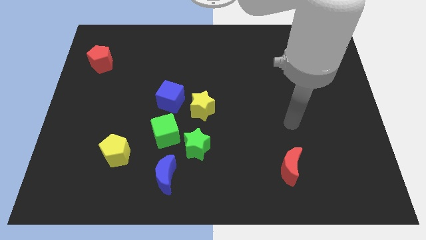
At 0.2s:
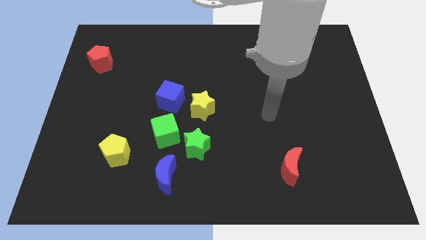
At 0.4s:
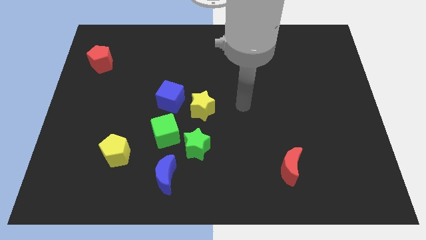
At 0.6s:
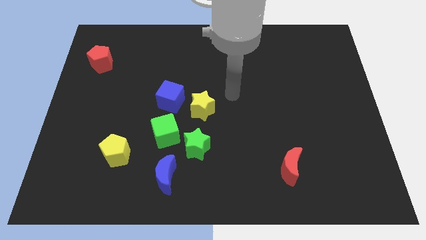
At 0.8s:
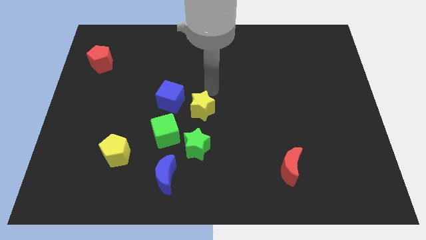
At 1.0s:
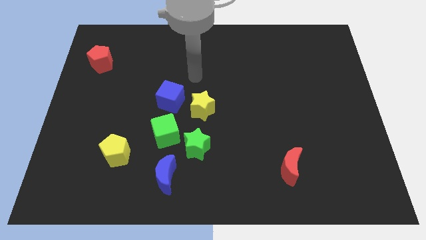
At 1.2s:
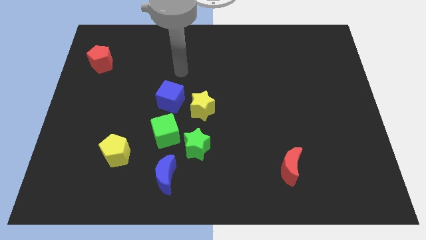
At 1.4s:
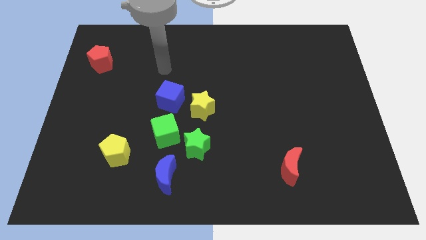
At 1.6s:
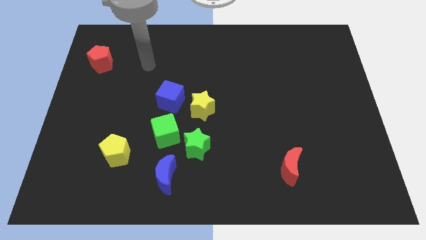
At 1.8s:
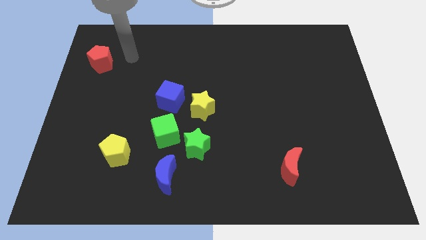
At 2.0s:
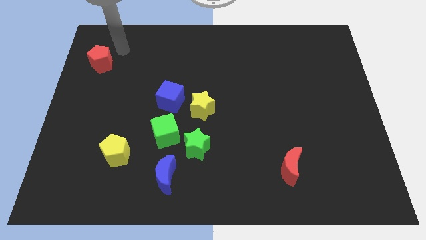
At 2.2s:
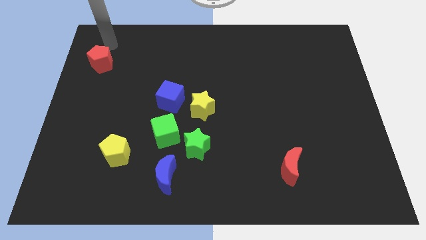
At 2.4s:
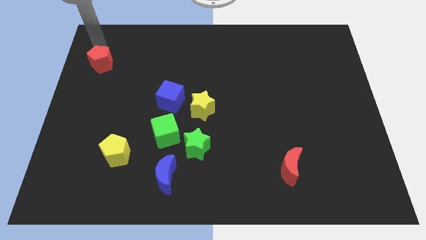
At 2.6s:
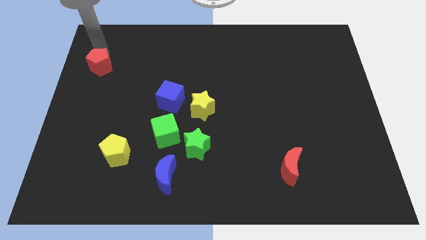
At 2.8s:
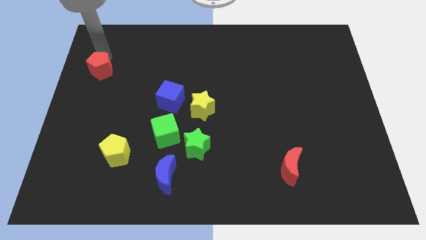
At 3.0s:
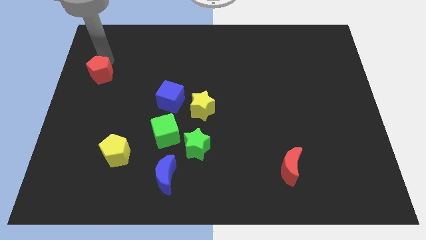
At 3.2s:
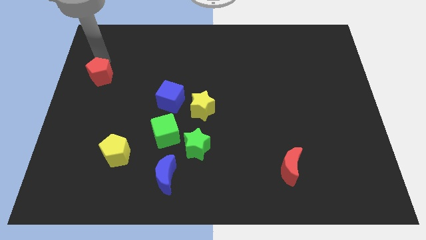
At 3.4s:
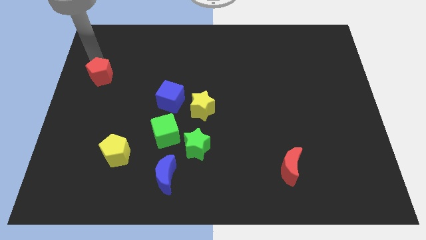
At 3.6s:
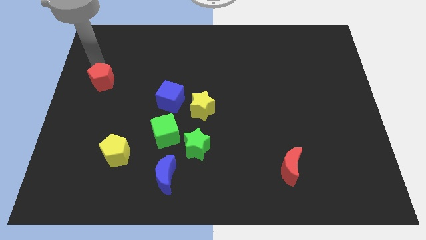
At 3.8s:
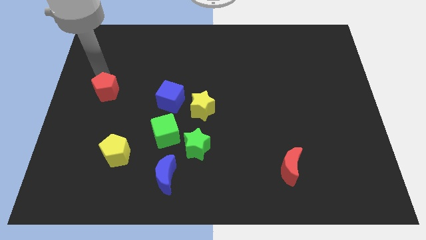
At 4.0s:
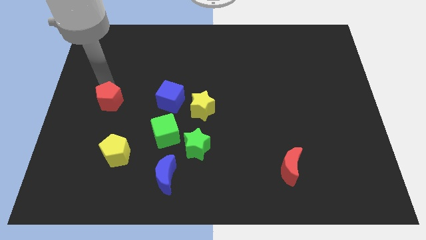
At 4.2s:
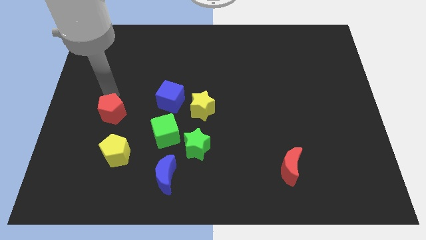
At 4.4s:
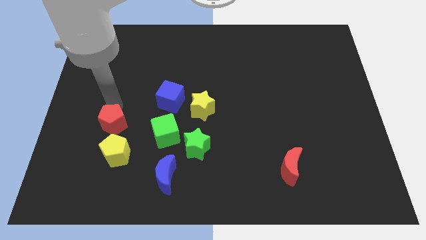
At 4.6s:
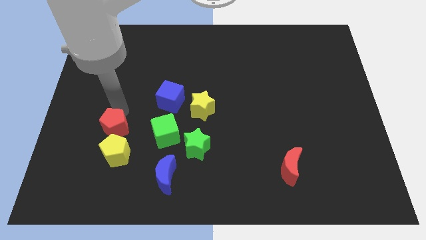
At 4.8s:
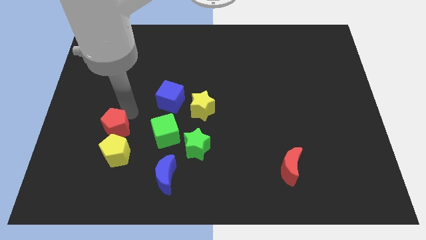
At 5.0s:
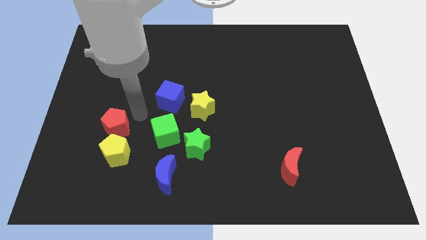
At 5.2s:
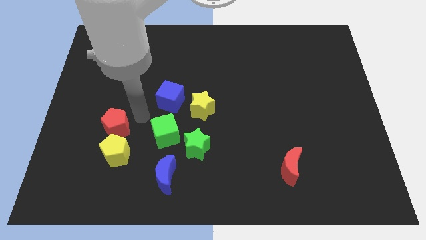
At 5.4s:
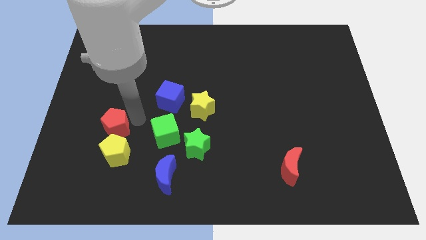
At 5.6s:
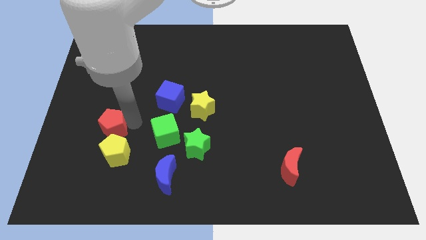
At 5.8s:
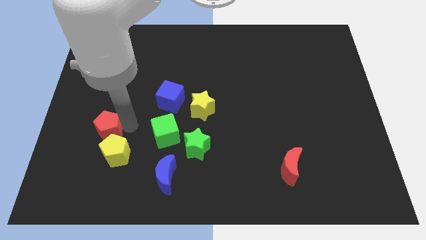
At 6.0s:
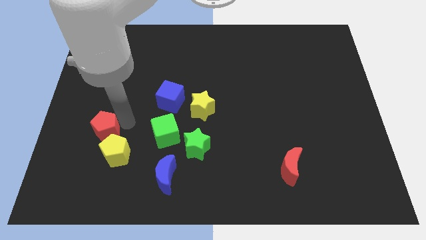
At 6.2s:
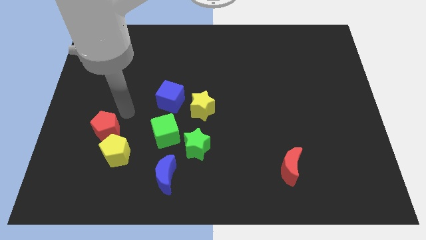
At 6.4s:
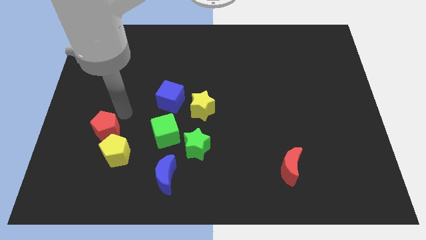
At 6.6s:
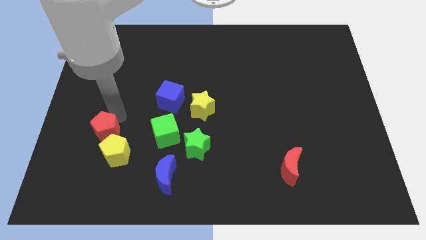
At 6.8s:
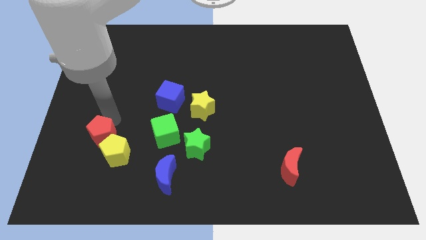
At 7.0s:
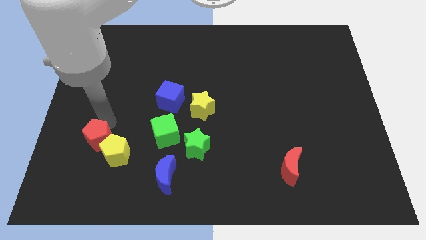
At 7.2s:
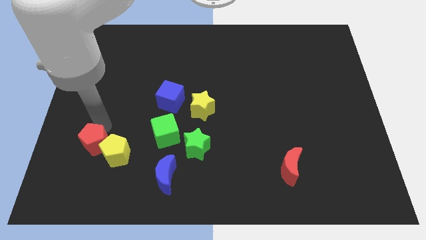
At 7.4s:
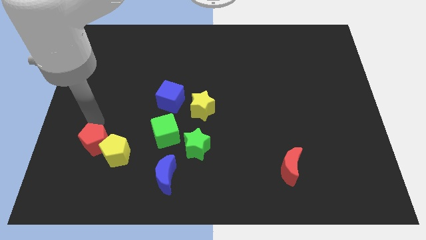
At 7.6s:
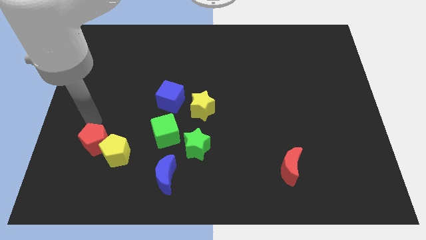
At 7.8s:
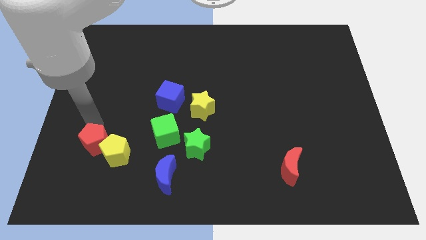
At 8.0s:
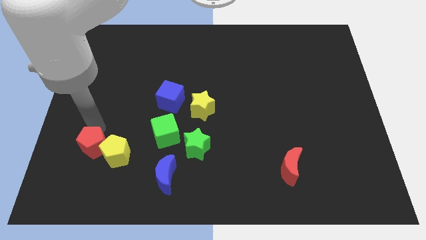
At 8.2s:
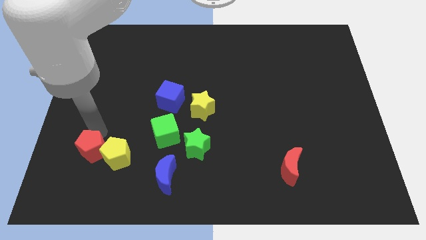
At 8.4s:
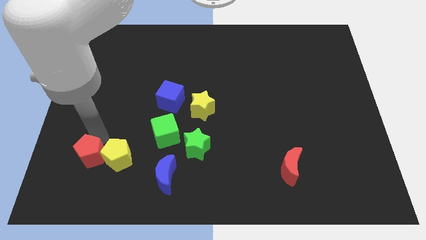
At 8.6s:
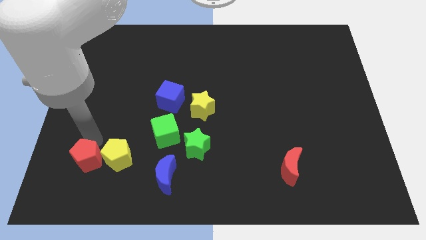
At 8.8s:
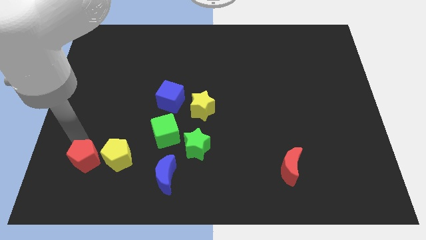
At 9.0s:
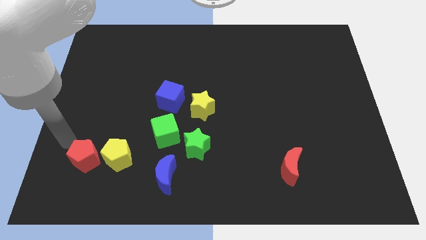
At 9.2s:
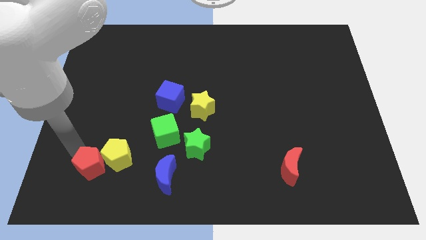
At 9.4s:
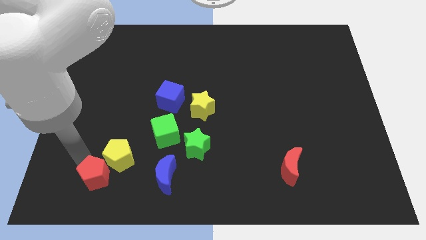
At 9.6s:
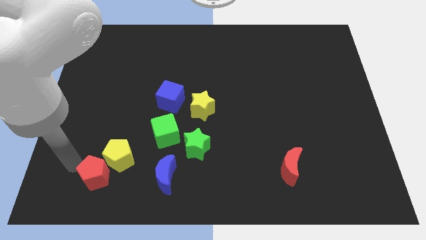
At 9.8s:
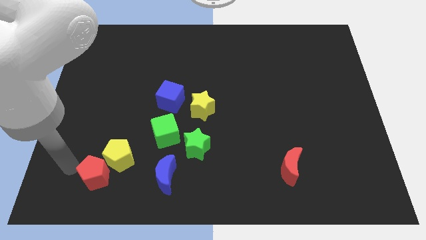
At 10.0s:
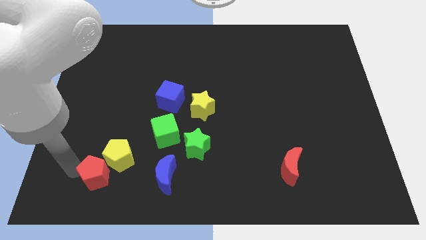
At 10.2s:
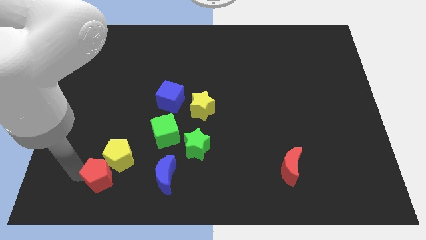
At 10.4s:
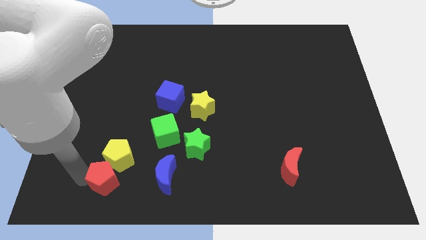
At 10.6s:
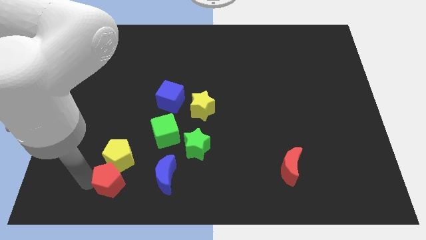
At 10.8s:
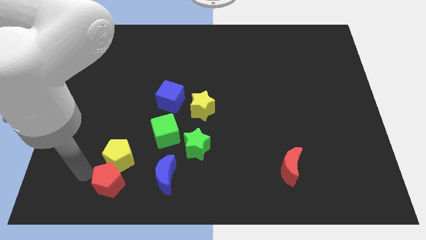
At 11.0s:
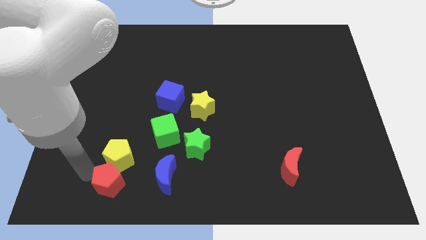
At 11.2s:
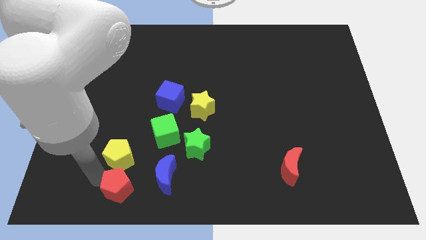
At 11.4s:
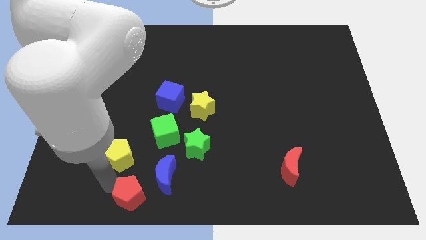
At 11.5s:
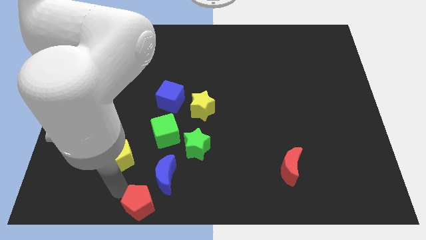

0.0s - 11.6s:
push the red pentagon to the bottom side

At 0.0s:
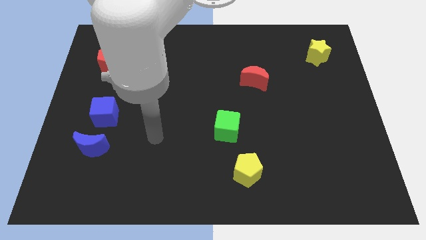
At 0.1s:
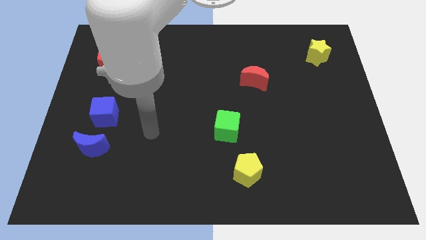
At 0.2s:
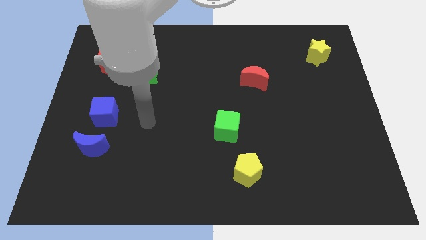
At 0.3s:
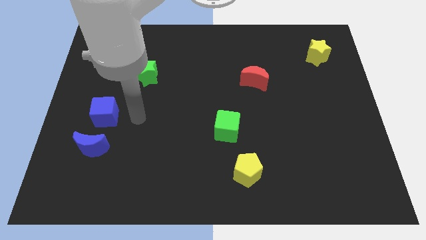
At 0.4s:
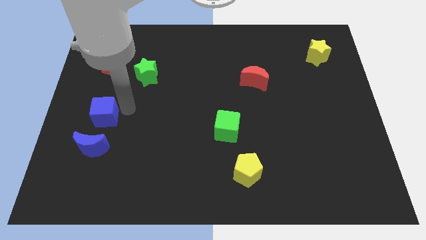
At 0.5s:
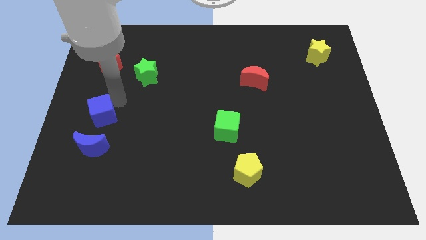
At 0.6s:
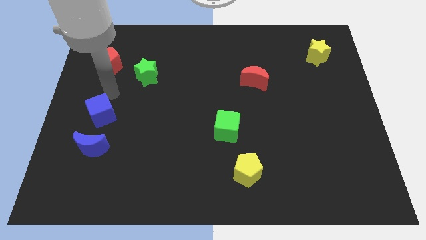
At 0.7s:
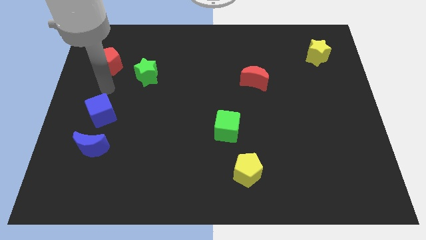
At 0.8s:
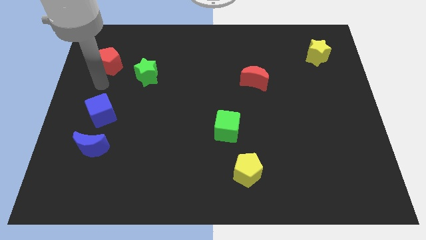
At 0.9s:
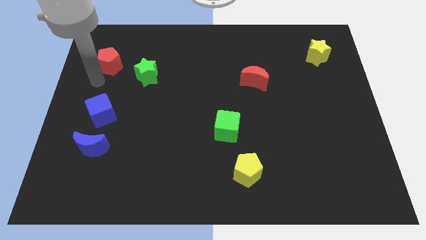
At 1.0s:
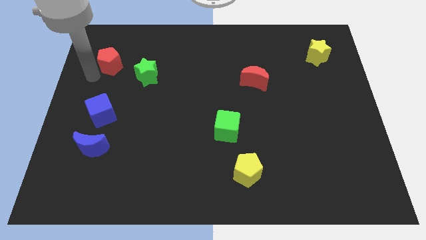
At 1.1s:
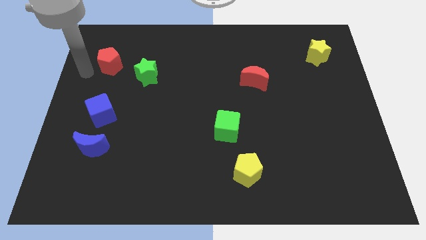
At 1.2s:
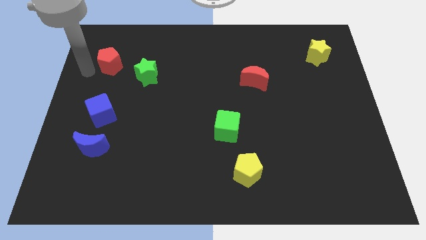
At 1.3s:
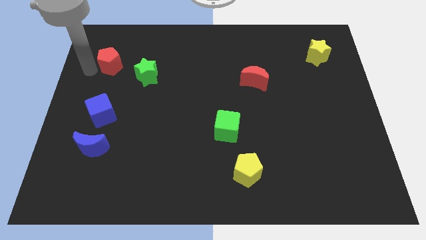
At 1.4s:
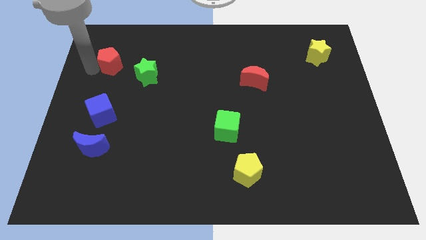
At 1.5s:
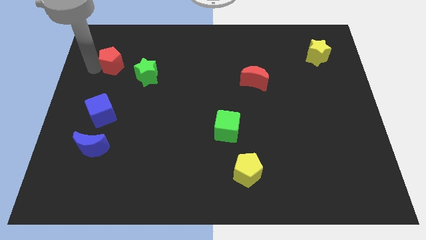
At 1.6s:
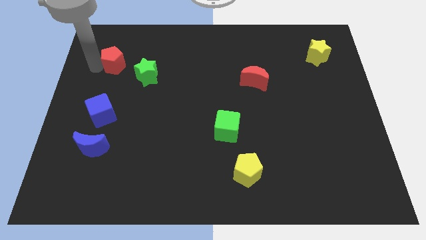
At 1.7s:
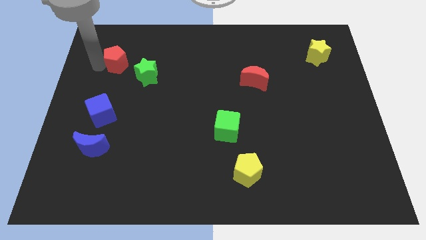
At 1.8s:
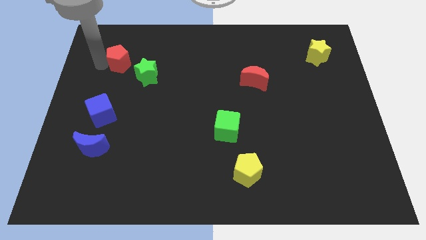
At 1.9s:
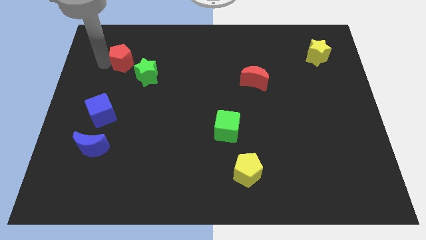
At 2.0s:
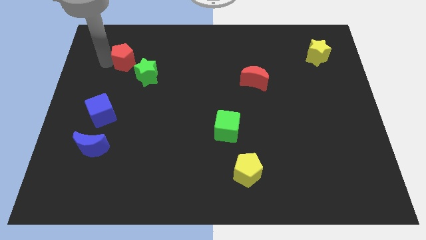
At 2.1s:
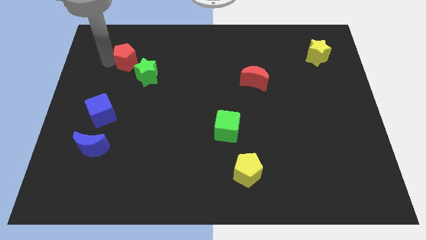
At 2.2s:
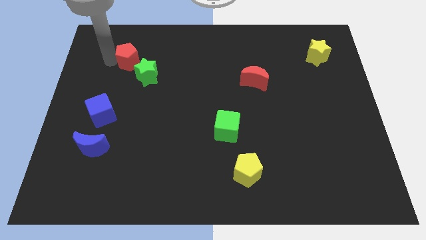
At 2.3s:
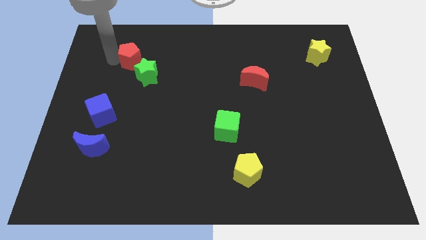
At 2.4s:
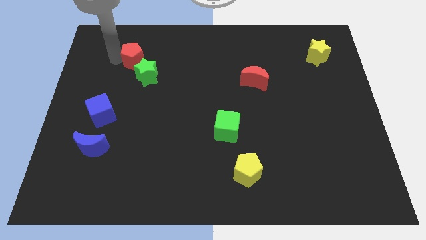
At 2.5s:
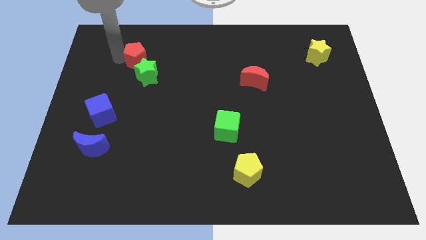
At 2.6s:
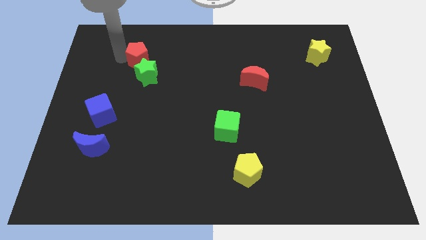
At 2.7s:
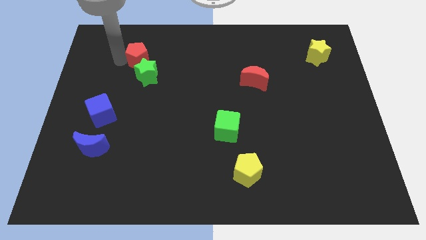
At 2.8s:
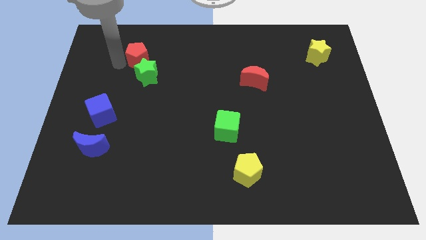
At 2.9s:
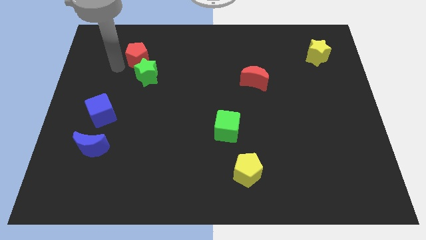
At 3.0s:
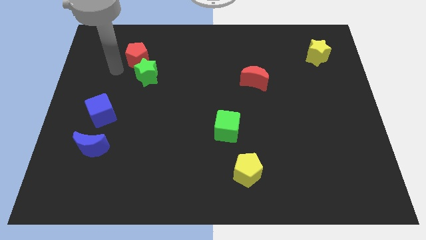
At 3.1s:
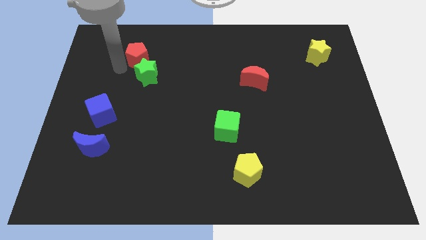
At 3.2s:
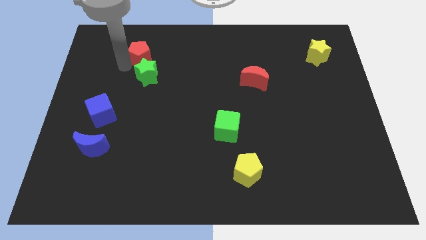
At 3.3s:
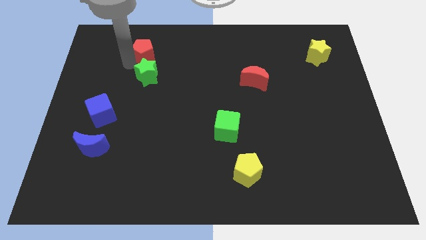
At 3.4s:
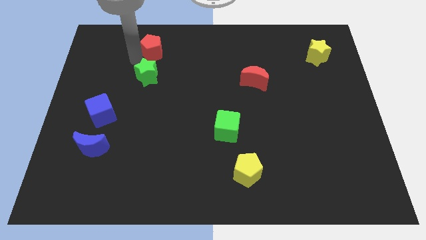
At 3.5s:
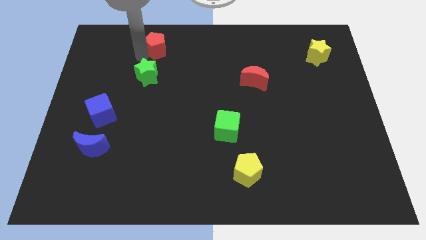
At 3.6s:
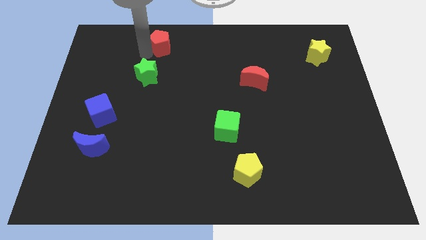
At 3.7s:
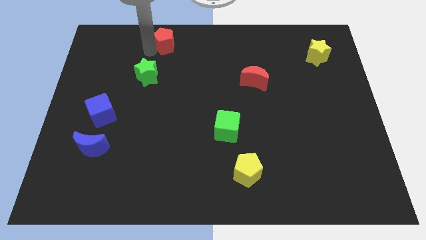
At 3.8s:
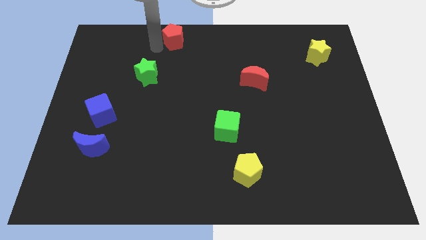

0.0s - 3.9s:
push the red pentagon to the top side
